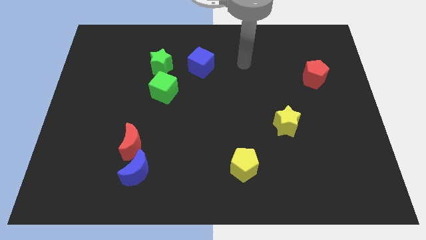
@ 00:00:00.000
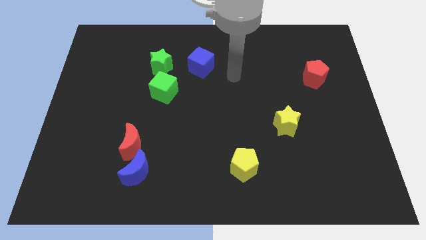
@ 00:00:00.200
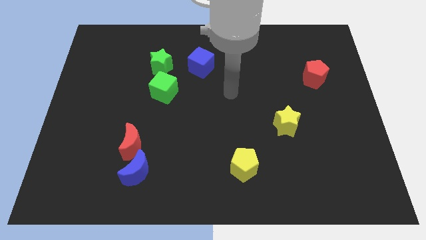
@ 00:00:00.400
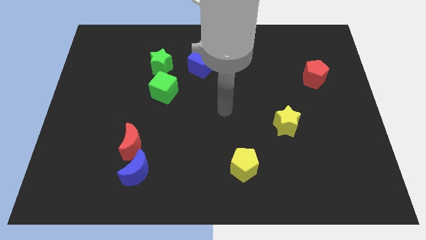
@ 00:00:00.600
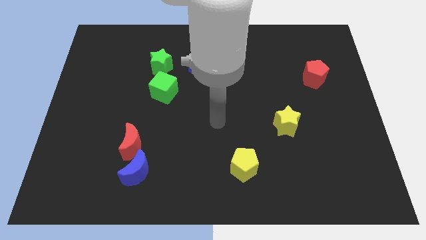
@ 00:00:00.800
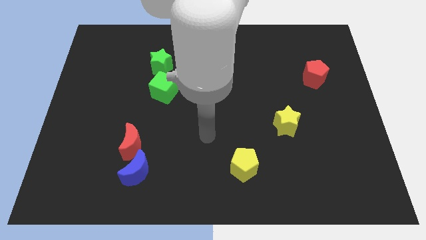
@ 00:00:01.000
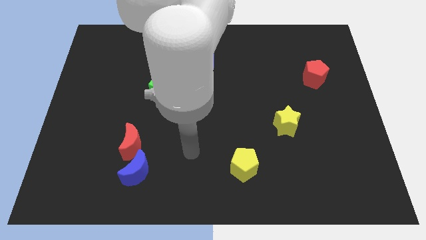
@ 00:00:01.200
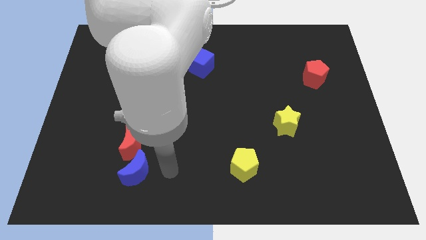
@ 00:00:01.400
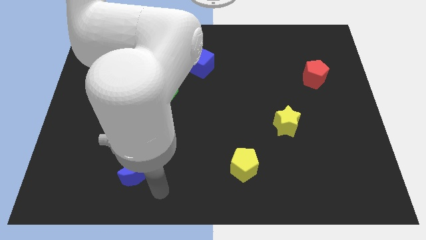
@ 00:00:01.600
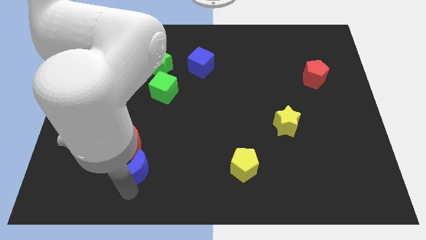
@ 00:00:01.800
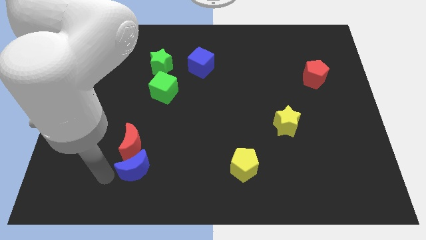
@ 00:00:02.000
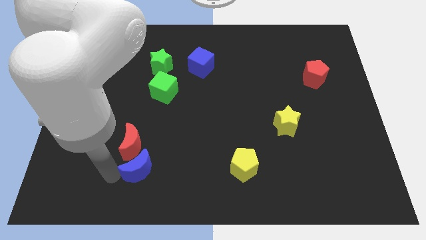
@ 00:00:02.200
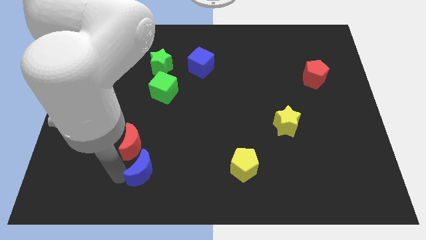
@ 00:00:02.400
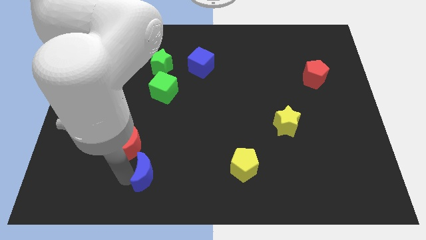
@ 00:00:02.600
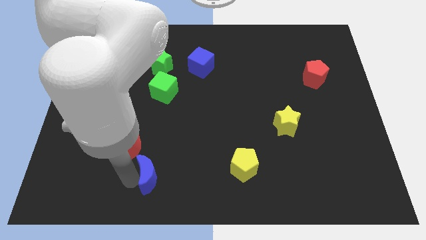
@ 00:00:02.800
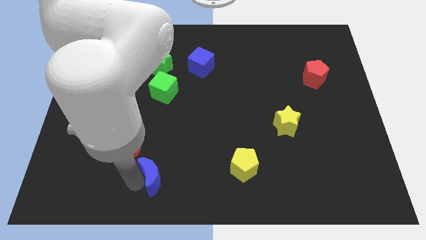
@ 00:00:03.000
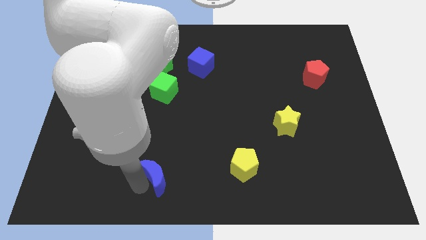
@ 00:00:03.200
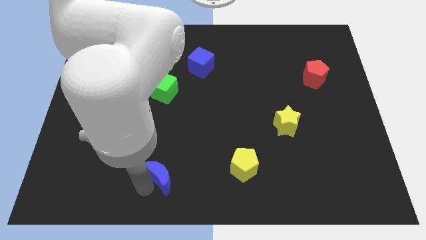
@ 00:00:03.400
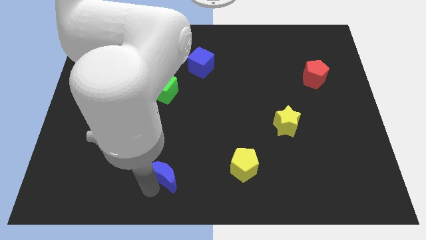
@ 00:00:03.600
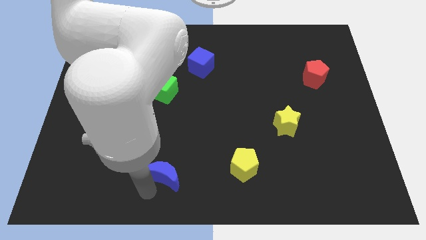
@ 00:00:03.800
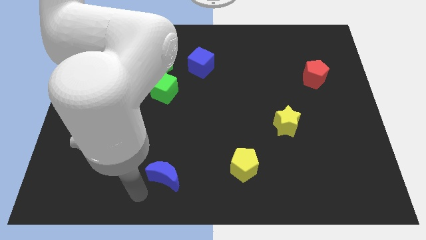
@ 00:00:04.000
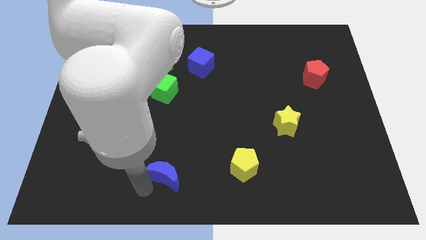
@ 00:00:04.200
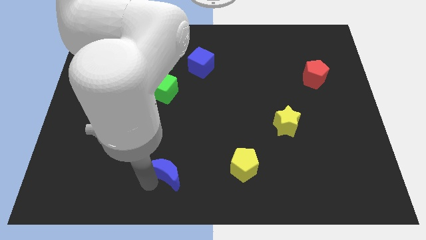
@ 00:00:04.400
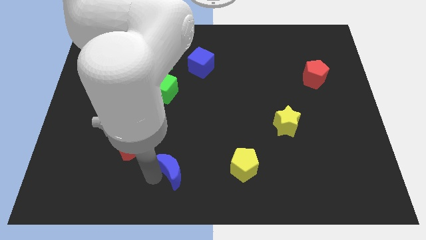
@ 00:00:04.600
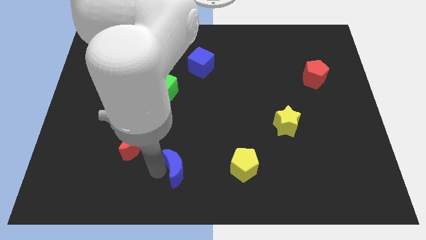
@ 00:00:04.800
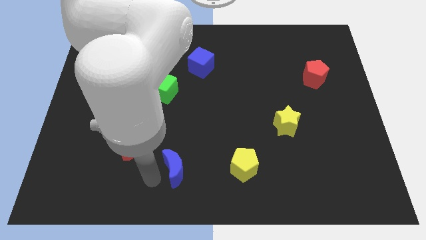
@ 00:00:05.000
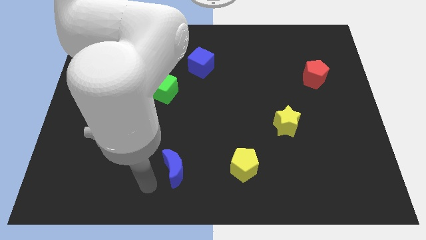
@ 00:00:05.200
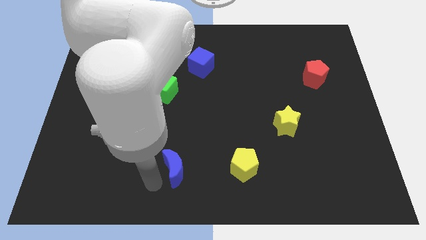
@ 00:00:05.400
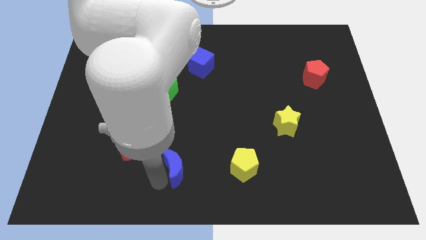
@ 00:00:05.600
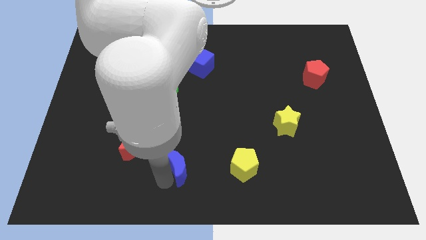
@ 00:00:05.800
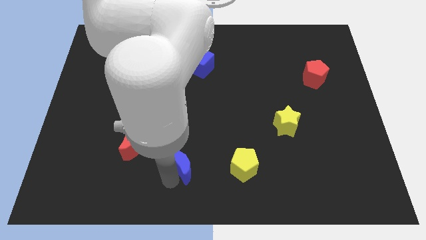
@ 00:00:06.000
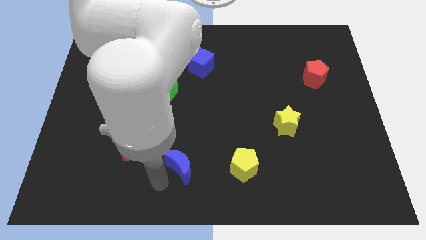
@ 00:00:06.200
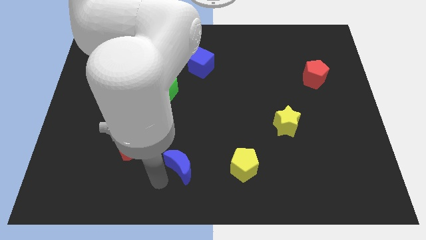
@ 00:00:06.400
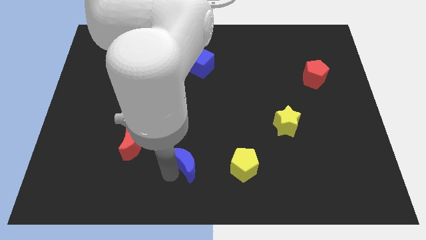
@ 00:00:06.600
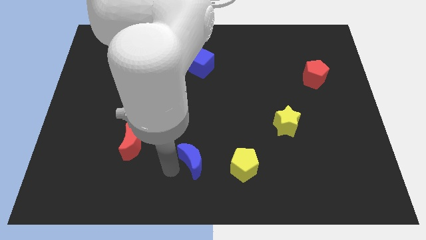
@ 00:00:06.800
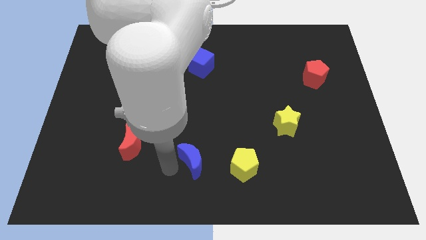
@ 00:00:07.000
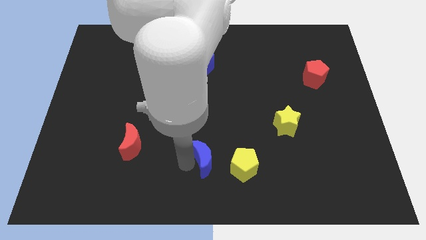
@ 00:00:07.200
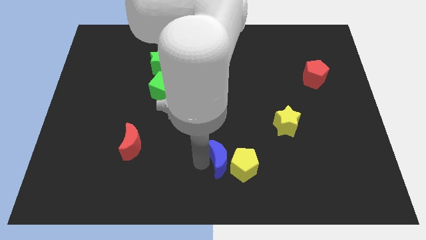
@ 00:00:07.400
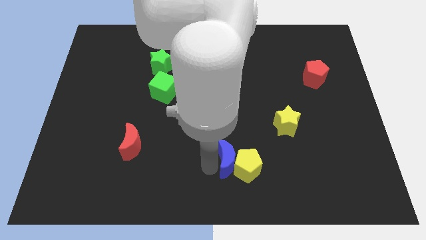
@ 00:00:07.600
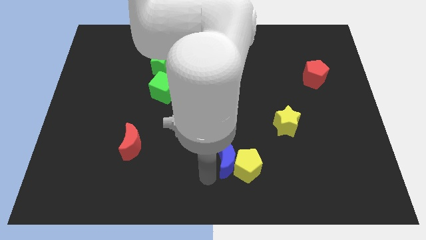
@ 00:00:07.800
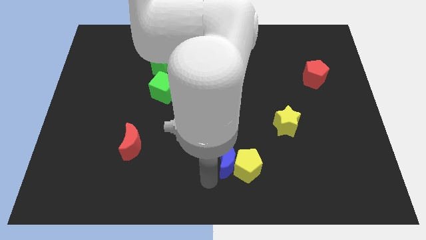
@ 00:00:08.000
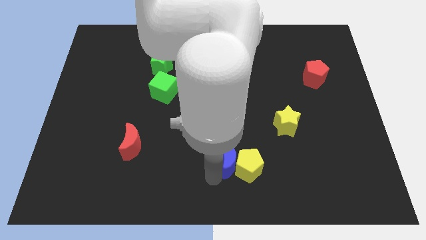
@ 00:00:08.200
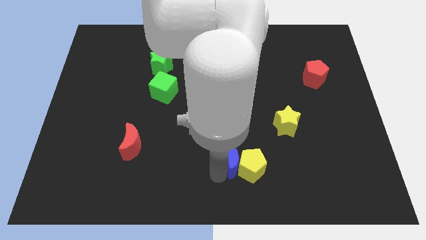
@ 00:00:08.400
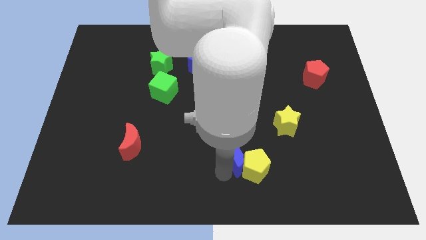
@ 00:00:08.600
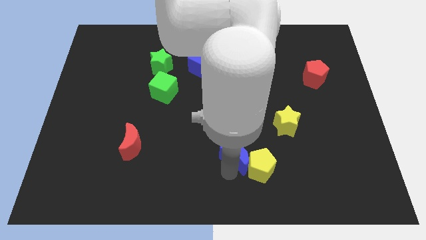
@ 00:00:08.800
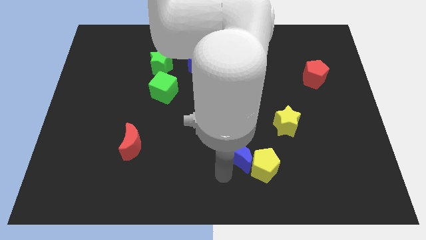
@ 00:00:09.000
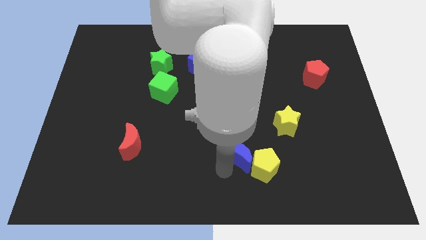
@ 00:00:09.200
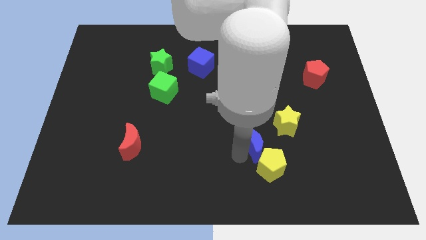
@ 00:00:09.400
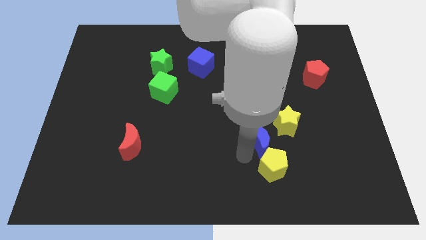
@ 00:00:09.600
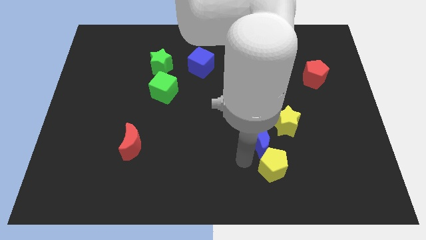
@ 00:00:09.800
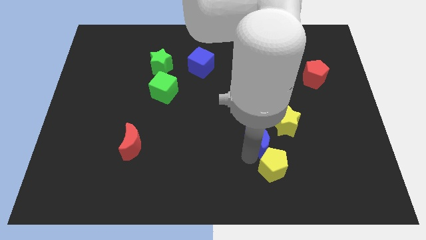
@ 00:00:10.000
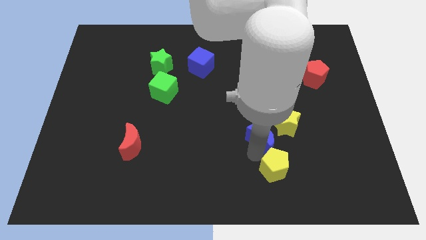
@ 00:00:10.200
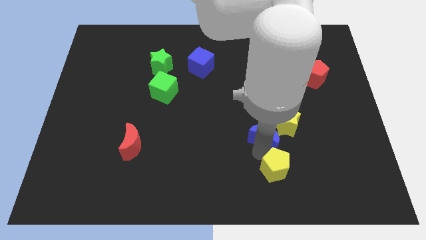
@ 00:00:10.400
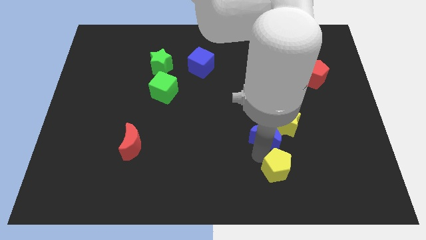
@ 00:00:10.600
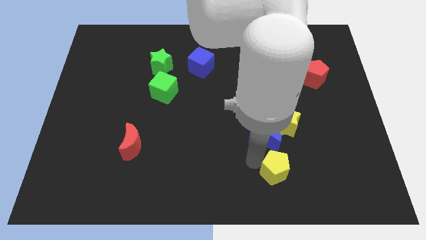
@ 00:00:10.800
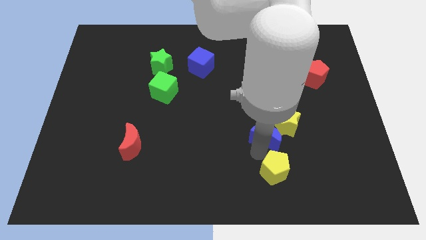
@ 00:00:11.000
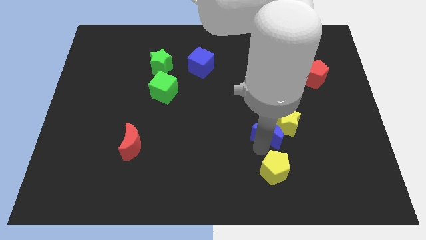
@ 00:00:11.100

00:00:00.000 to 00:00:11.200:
push the blue moon to the yellow star
